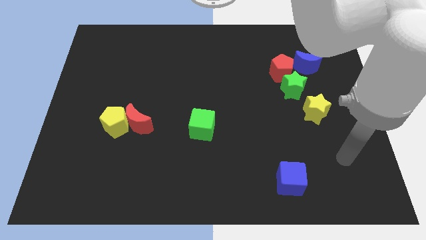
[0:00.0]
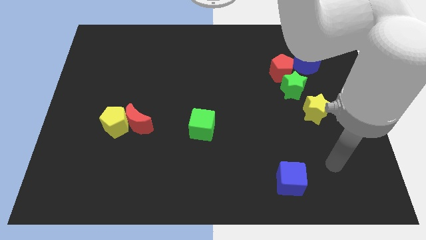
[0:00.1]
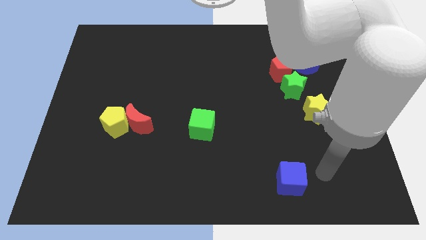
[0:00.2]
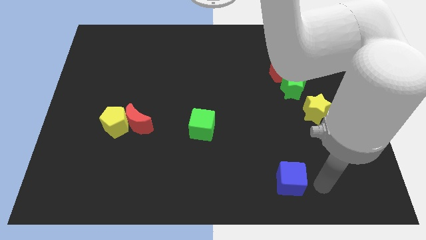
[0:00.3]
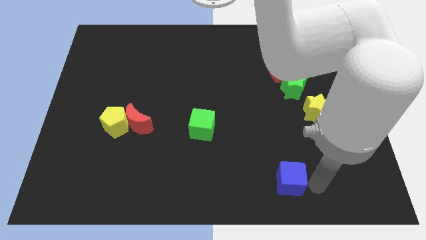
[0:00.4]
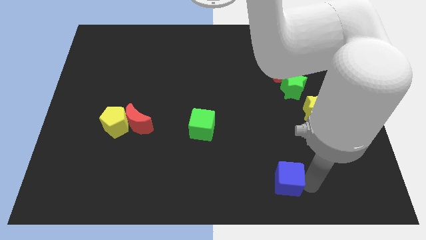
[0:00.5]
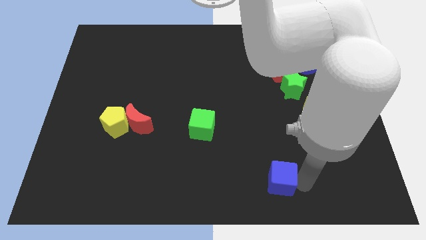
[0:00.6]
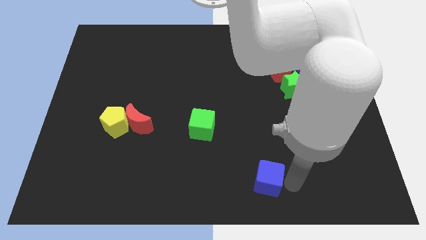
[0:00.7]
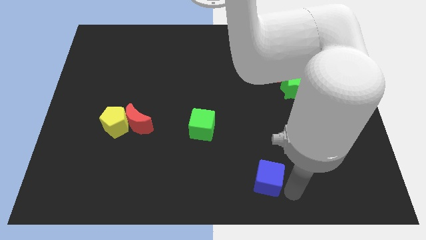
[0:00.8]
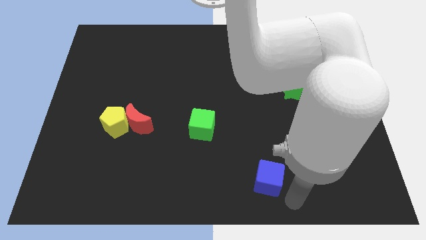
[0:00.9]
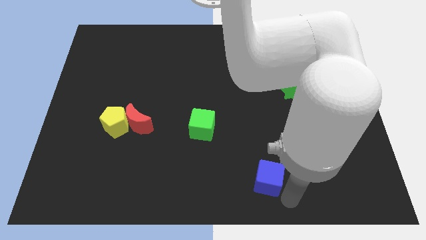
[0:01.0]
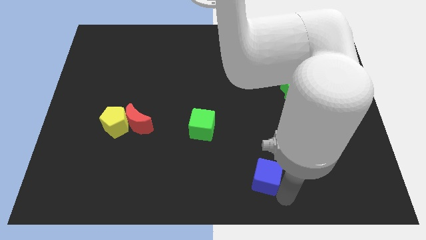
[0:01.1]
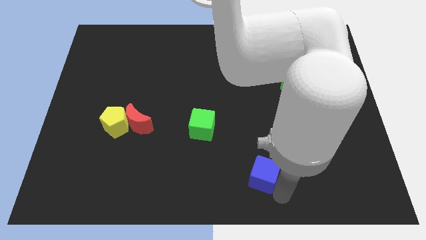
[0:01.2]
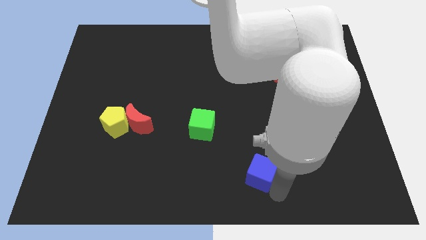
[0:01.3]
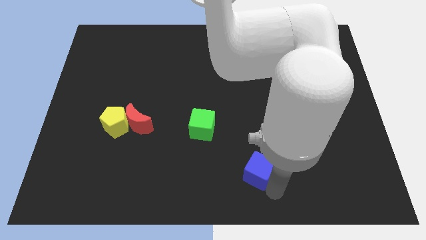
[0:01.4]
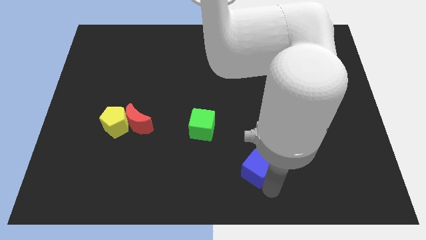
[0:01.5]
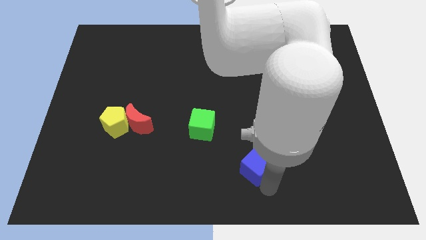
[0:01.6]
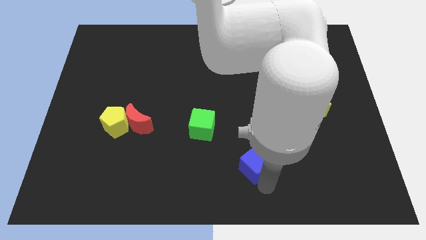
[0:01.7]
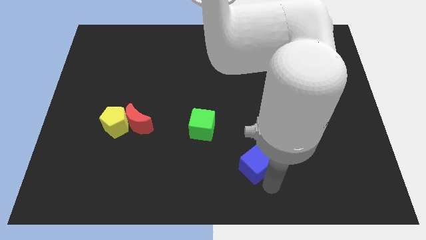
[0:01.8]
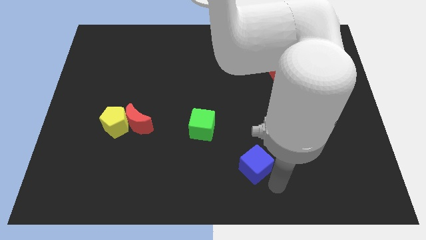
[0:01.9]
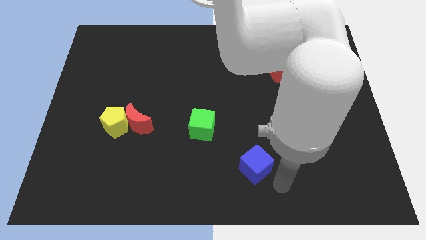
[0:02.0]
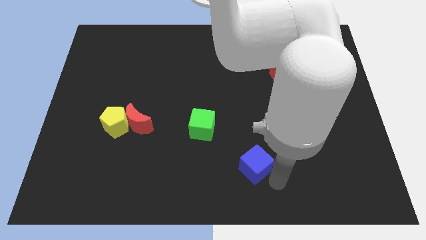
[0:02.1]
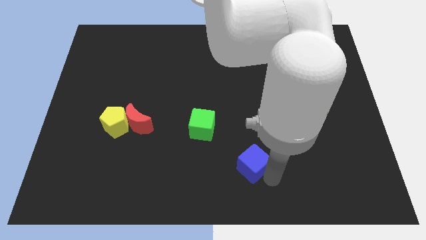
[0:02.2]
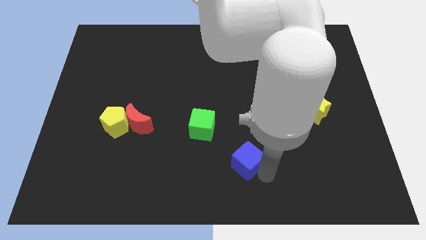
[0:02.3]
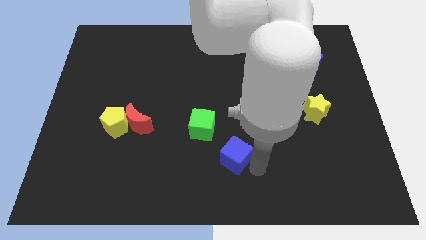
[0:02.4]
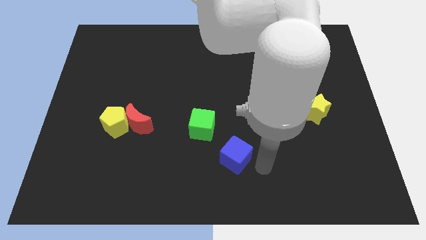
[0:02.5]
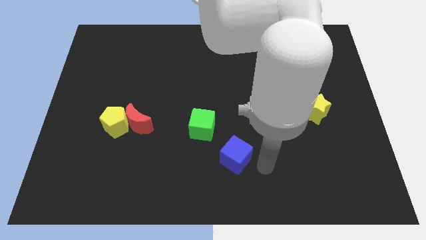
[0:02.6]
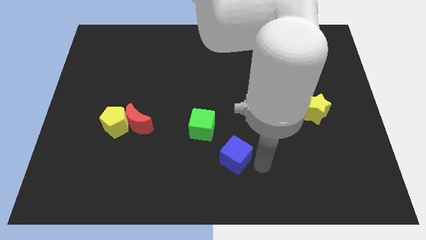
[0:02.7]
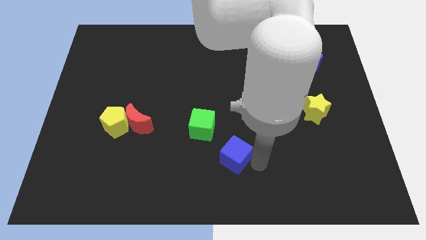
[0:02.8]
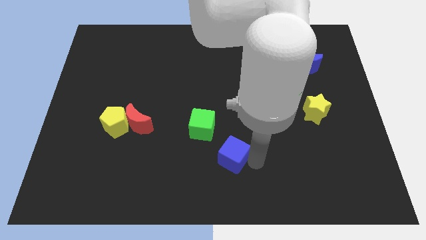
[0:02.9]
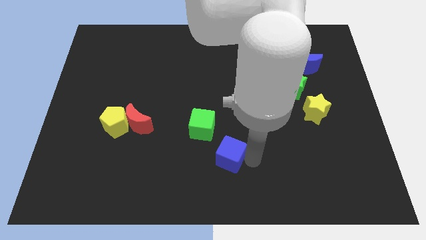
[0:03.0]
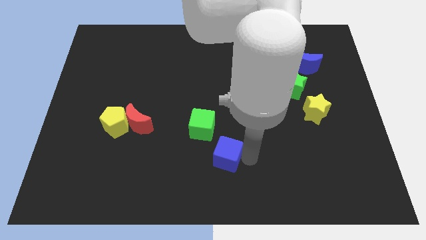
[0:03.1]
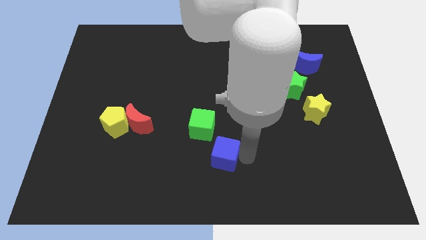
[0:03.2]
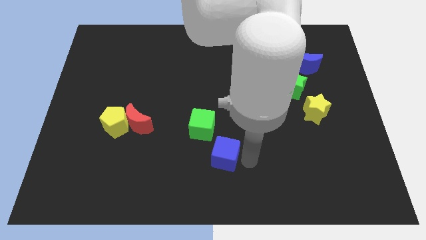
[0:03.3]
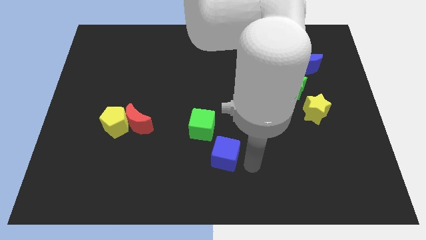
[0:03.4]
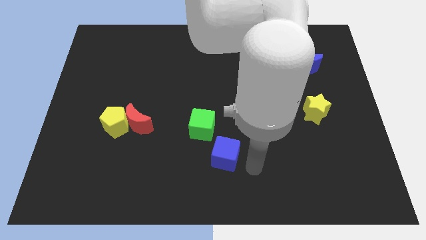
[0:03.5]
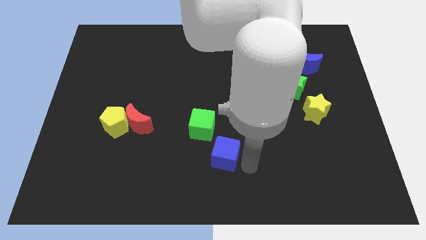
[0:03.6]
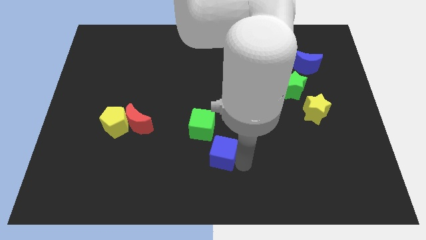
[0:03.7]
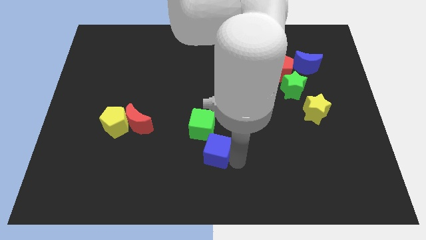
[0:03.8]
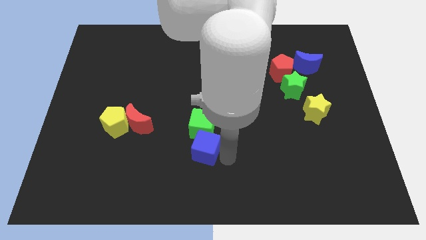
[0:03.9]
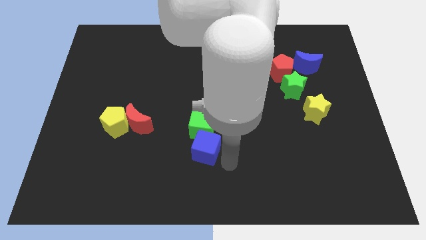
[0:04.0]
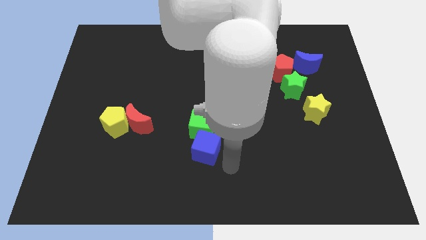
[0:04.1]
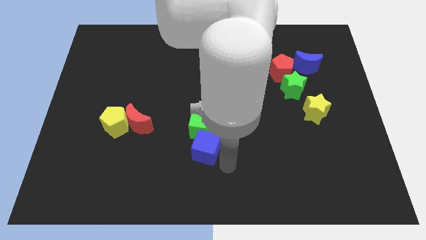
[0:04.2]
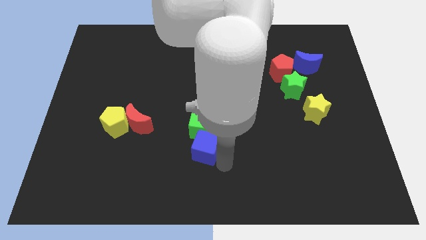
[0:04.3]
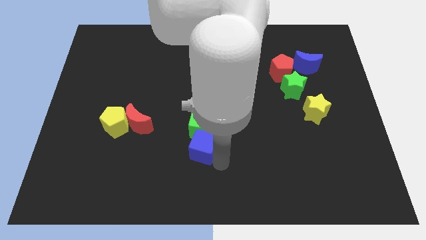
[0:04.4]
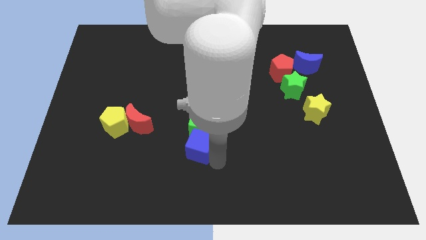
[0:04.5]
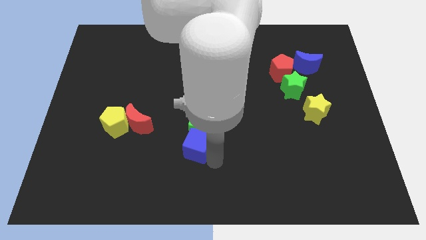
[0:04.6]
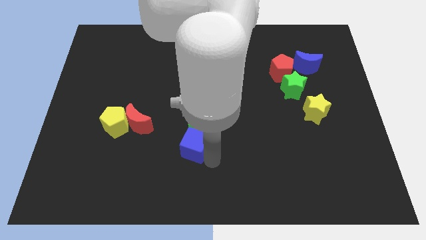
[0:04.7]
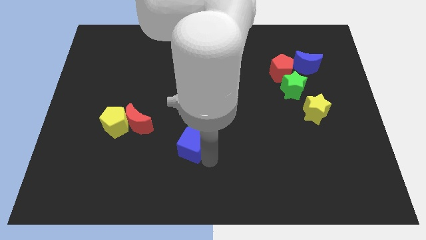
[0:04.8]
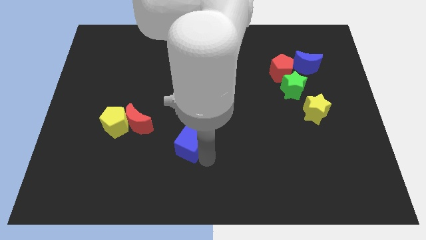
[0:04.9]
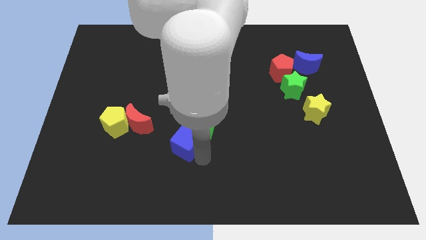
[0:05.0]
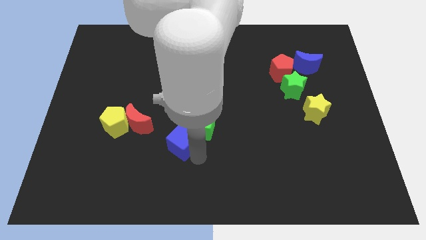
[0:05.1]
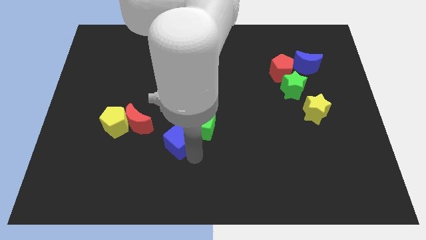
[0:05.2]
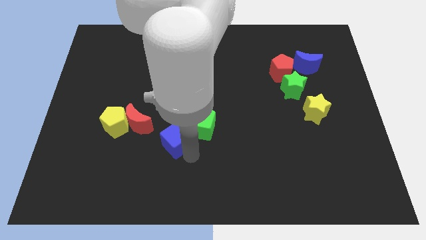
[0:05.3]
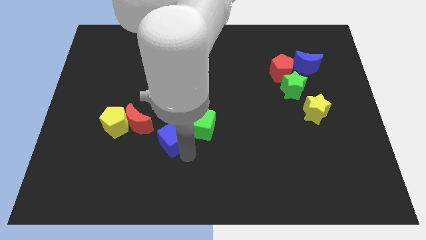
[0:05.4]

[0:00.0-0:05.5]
push the blue cube to the right side of the yellow pentagon

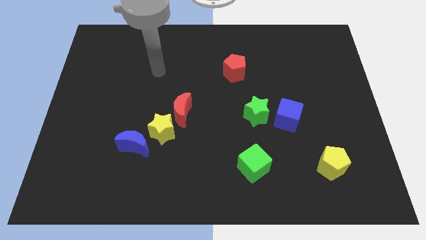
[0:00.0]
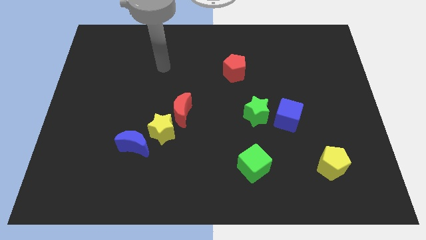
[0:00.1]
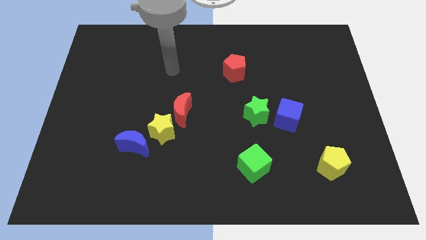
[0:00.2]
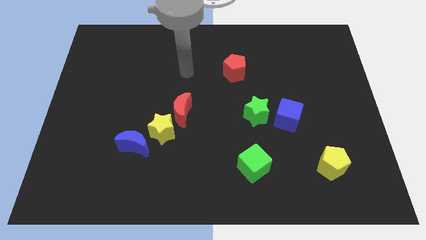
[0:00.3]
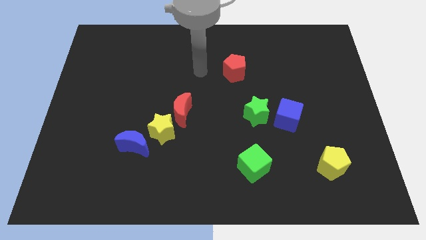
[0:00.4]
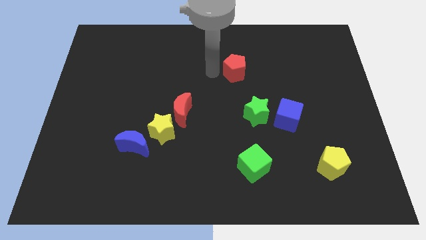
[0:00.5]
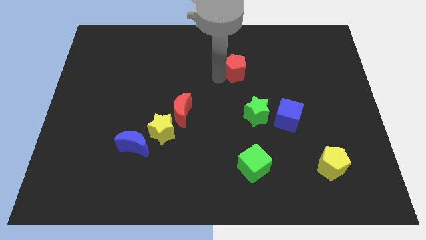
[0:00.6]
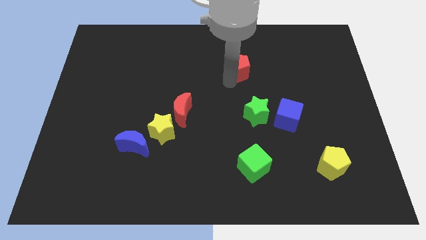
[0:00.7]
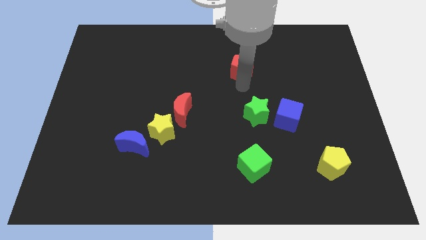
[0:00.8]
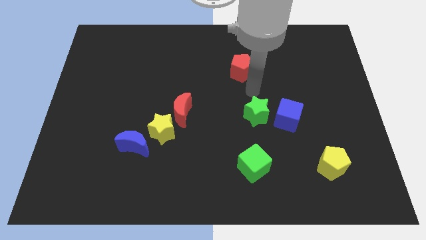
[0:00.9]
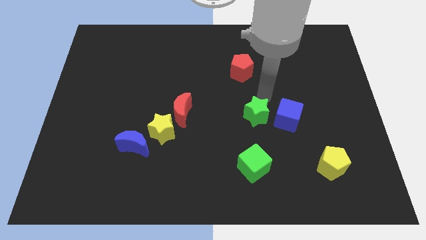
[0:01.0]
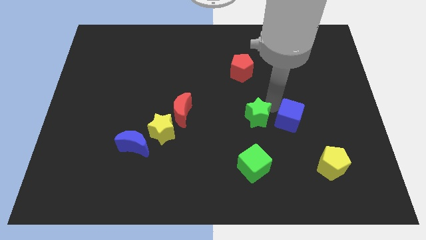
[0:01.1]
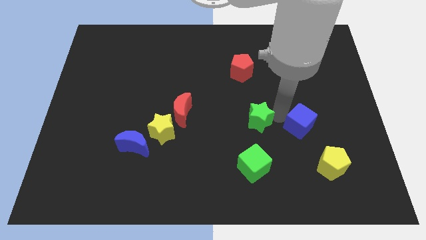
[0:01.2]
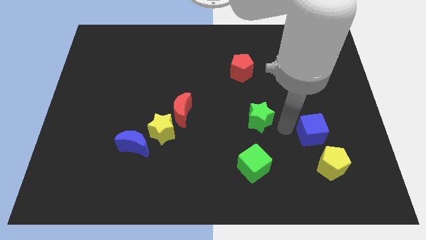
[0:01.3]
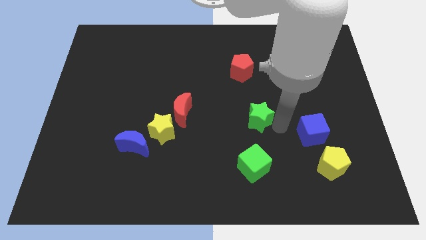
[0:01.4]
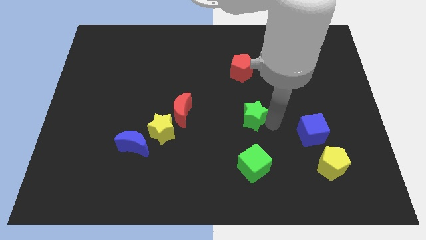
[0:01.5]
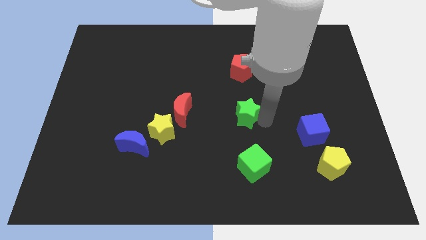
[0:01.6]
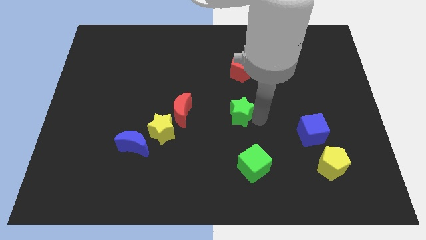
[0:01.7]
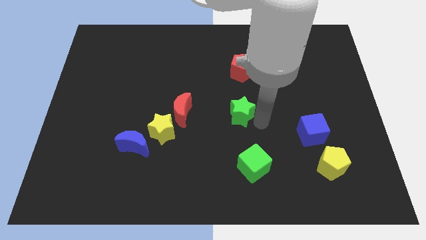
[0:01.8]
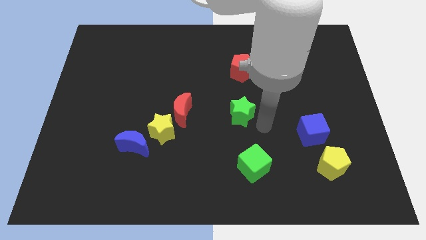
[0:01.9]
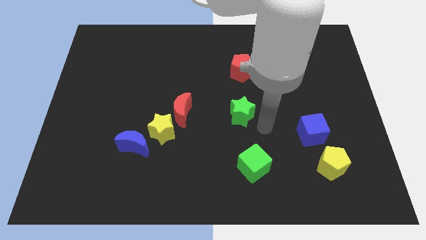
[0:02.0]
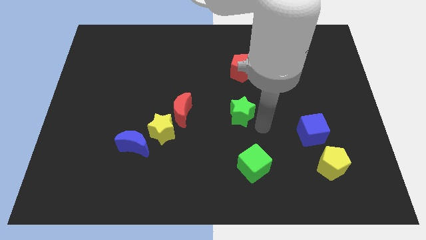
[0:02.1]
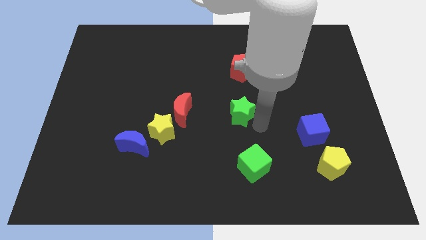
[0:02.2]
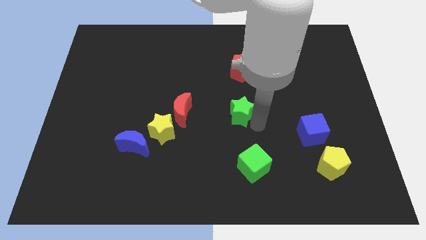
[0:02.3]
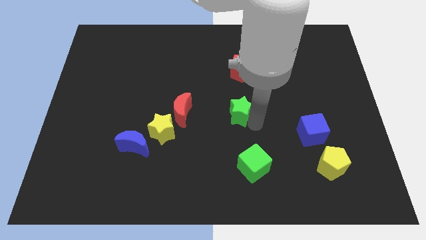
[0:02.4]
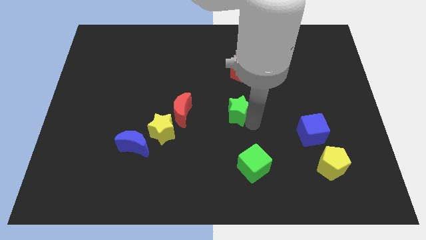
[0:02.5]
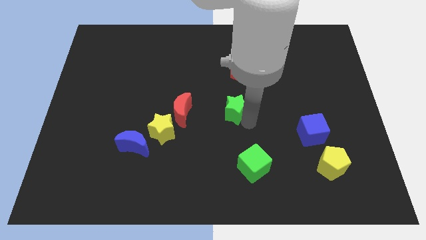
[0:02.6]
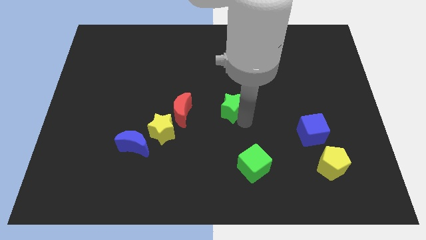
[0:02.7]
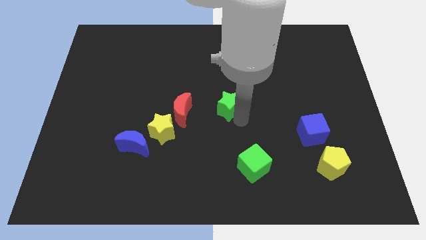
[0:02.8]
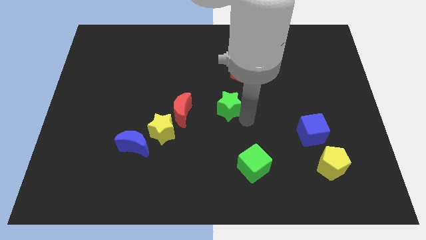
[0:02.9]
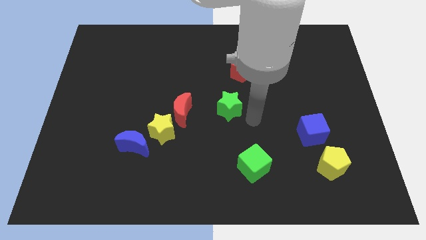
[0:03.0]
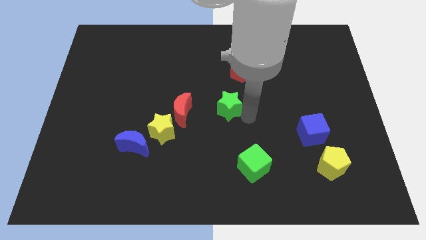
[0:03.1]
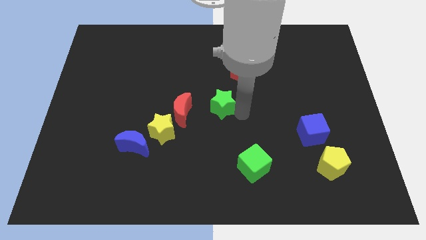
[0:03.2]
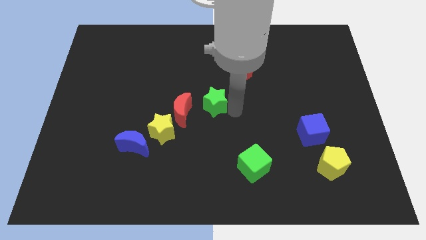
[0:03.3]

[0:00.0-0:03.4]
slide the green star to the top right side of the red moon
